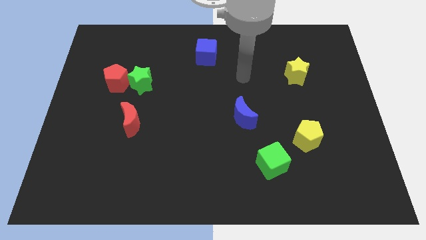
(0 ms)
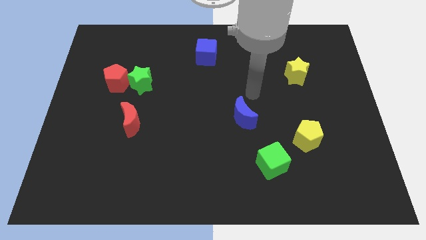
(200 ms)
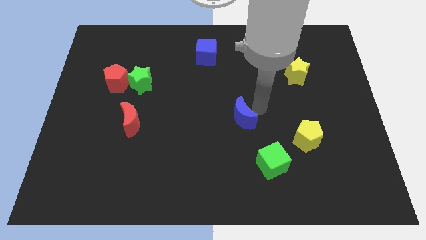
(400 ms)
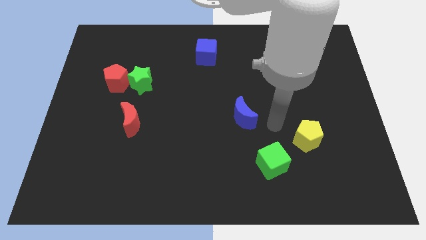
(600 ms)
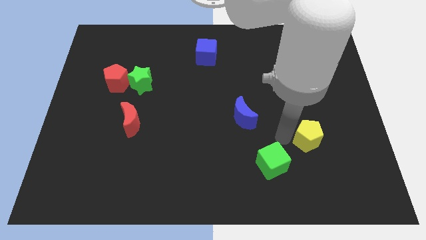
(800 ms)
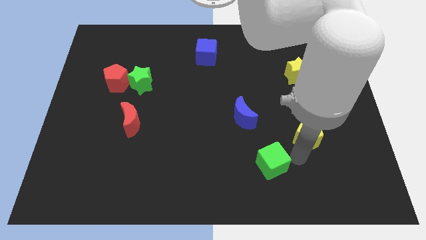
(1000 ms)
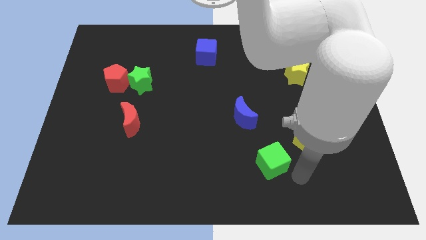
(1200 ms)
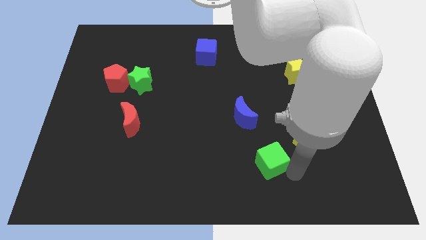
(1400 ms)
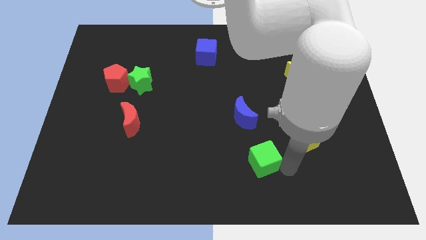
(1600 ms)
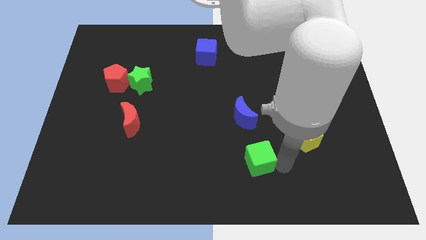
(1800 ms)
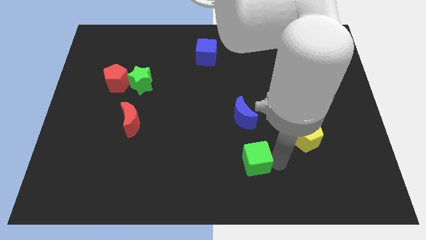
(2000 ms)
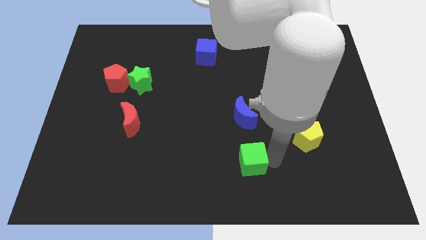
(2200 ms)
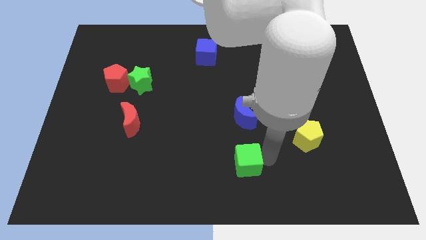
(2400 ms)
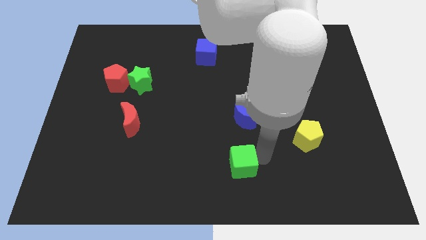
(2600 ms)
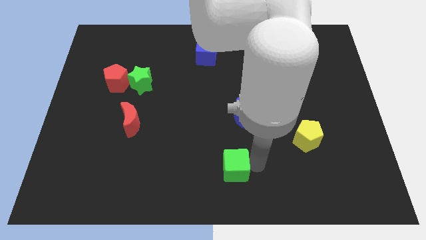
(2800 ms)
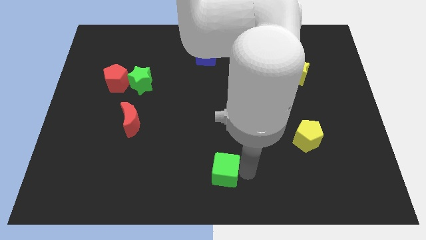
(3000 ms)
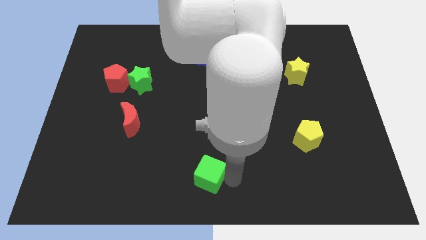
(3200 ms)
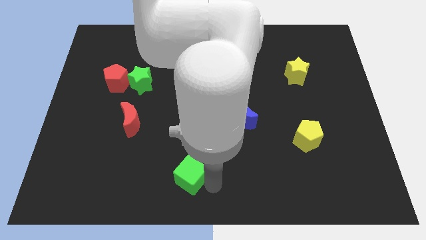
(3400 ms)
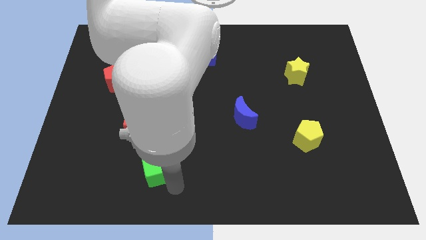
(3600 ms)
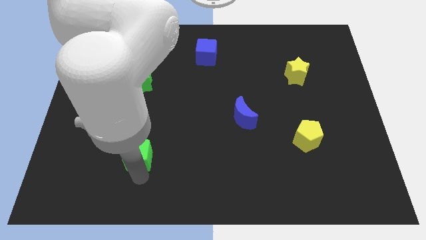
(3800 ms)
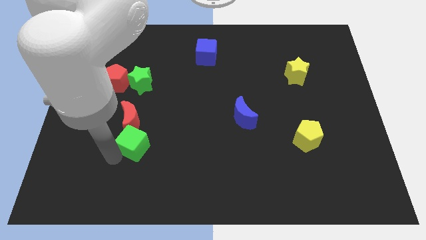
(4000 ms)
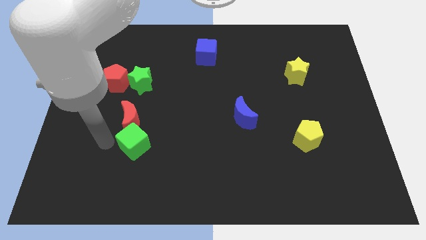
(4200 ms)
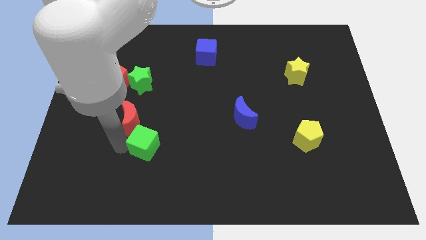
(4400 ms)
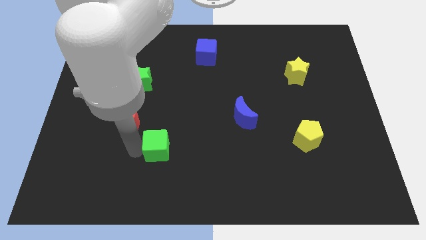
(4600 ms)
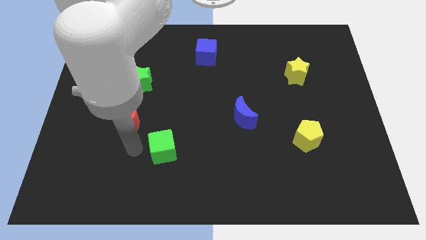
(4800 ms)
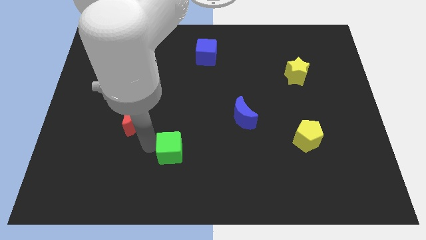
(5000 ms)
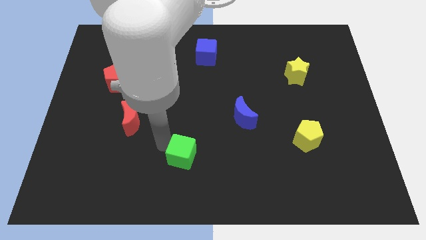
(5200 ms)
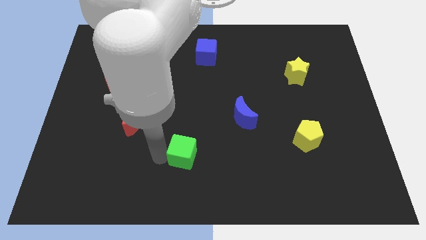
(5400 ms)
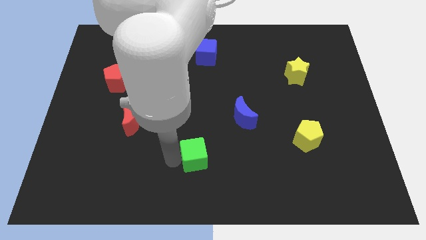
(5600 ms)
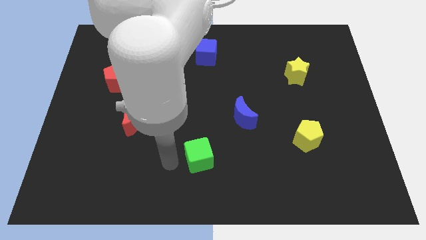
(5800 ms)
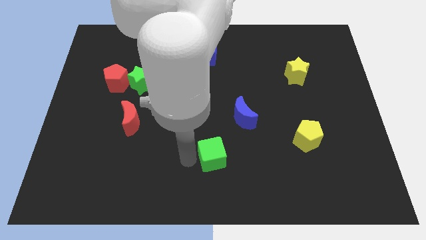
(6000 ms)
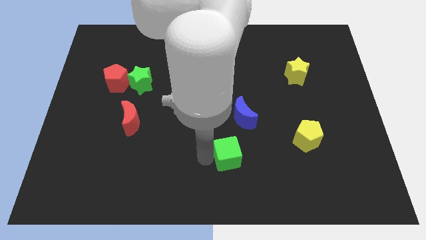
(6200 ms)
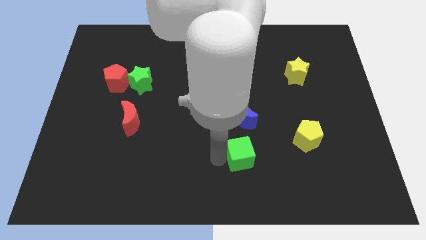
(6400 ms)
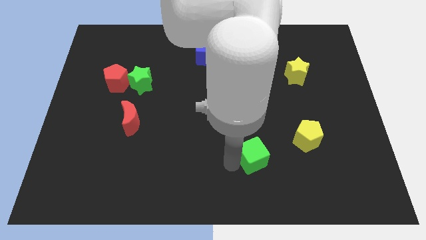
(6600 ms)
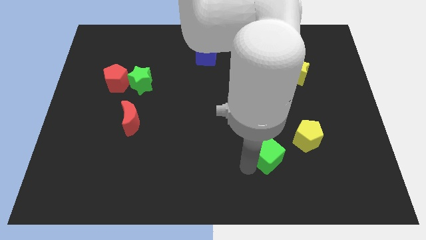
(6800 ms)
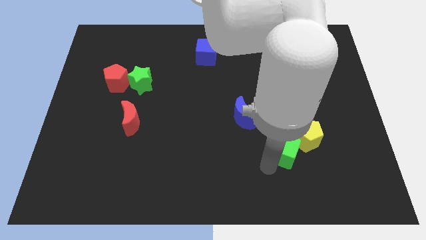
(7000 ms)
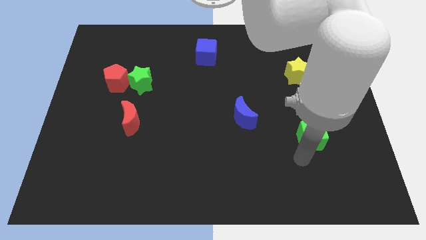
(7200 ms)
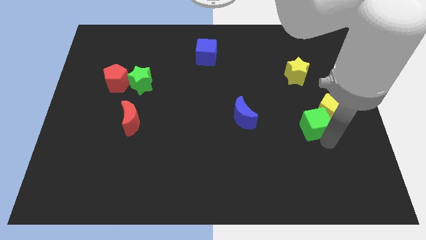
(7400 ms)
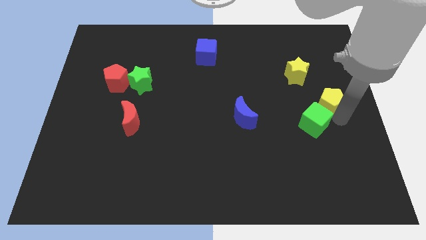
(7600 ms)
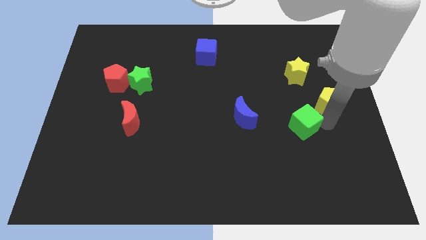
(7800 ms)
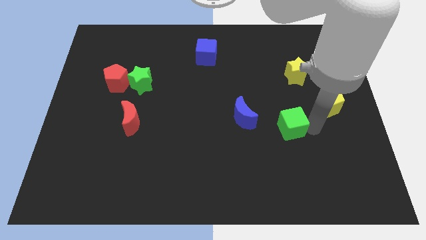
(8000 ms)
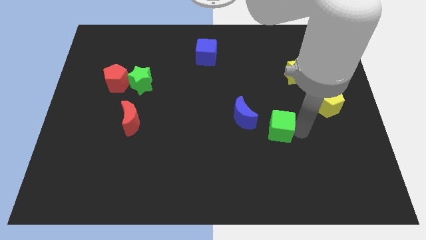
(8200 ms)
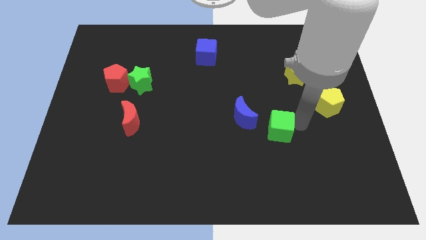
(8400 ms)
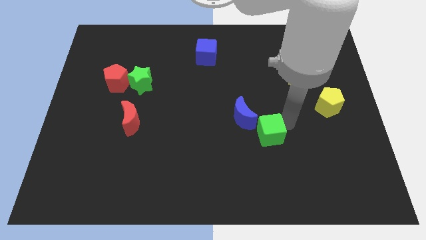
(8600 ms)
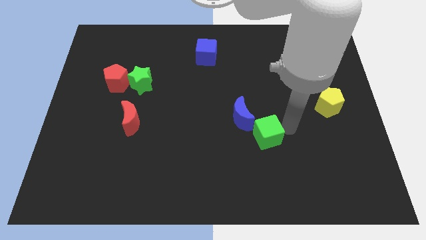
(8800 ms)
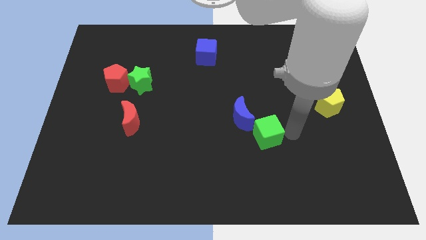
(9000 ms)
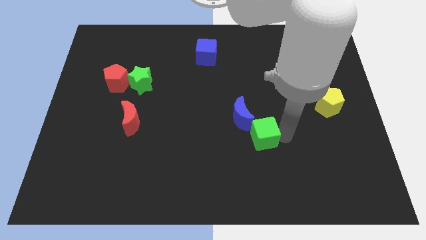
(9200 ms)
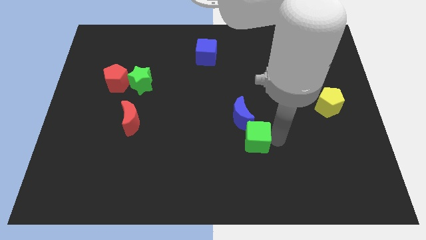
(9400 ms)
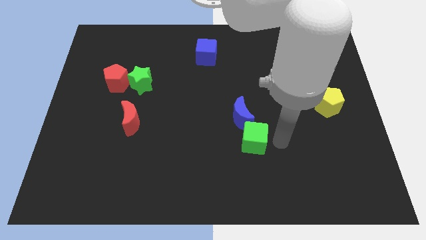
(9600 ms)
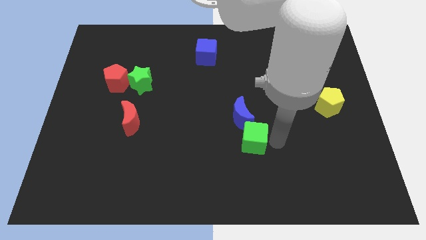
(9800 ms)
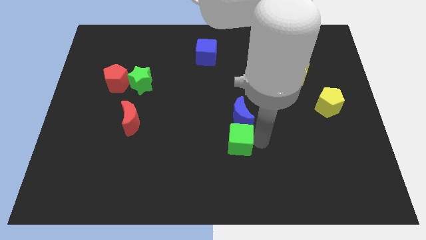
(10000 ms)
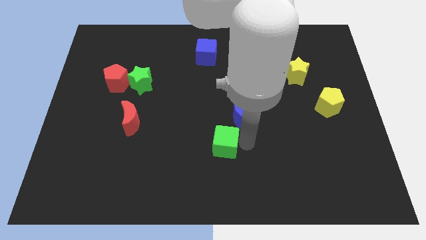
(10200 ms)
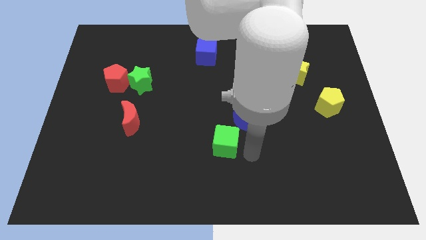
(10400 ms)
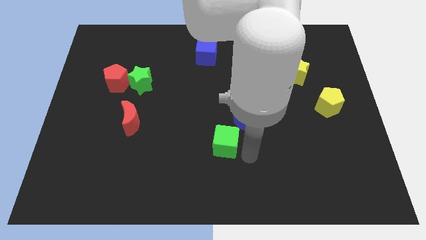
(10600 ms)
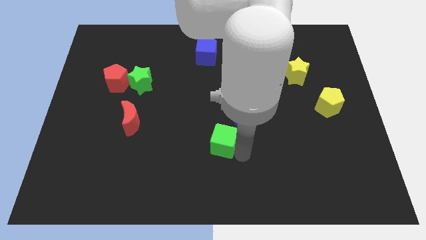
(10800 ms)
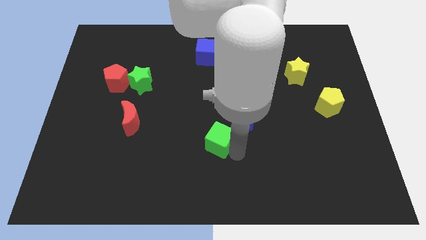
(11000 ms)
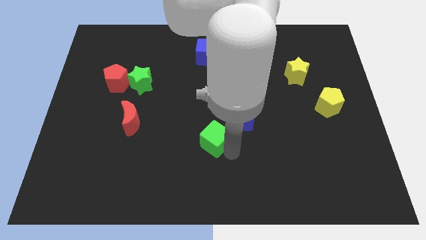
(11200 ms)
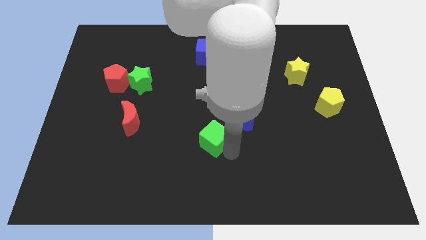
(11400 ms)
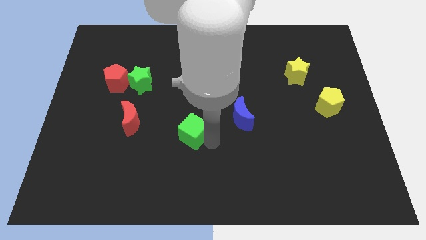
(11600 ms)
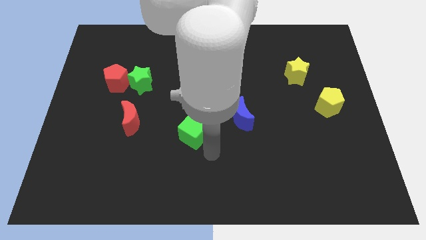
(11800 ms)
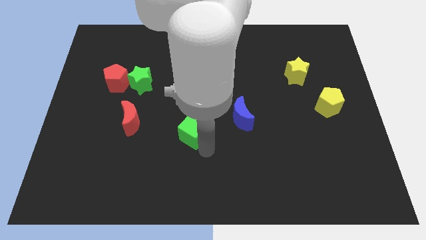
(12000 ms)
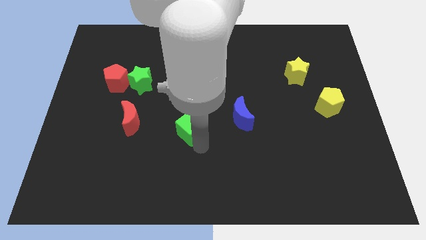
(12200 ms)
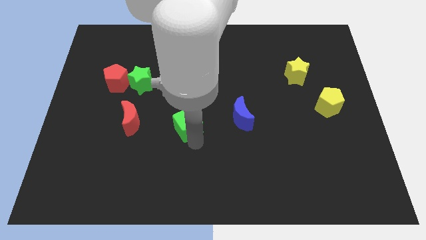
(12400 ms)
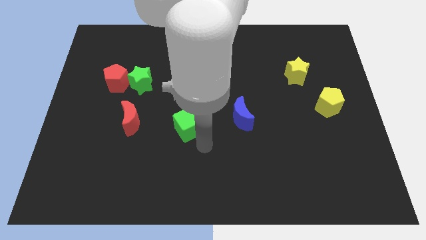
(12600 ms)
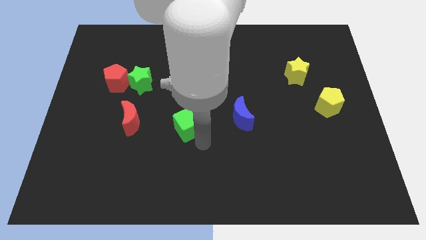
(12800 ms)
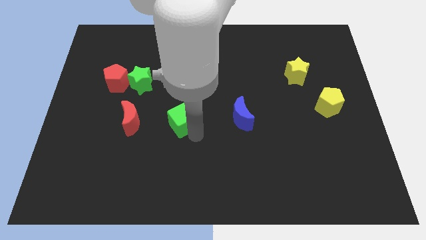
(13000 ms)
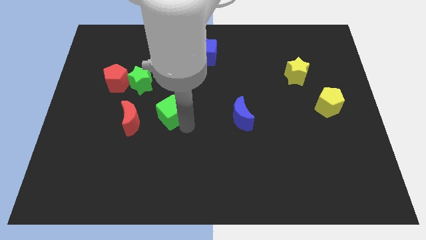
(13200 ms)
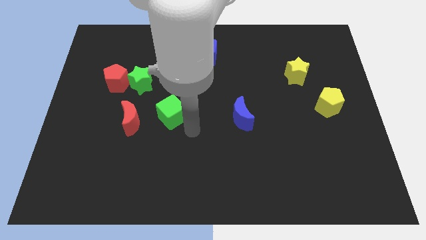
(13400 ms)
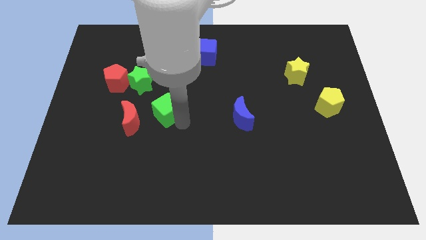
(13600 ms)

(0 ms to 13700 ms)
put the green cube to the top right side of the red moon

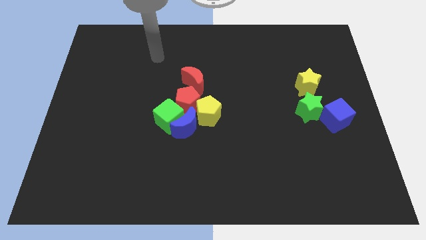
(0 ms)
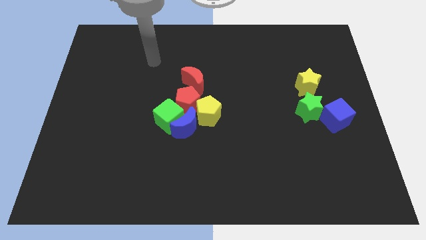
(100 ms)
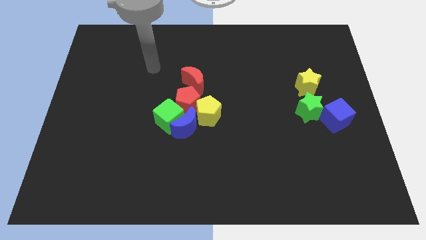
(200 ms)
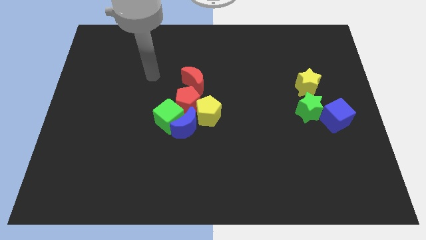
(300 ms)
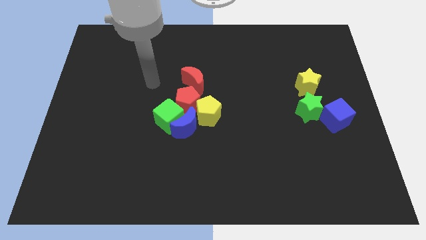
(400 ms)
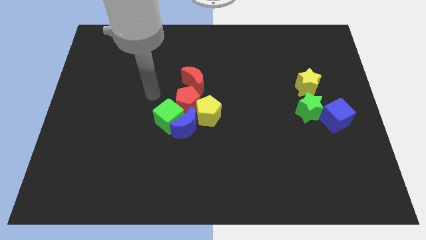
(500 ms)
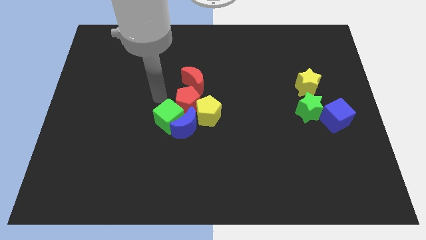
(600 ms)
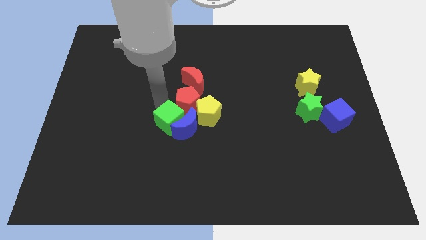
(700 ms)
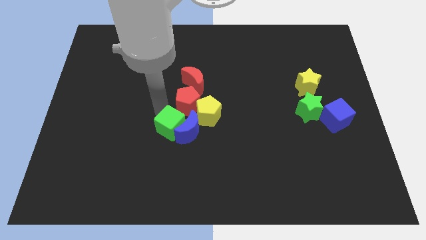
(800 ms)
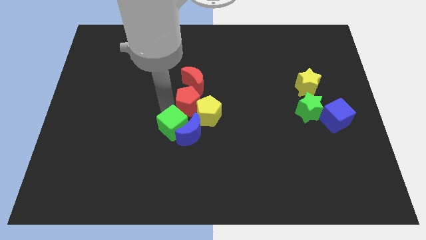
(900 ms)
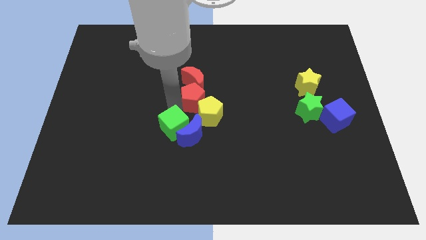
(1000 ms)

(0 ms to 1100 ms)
put the red pentagon to the top side of the yellow pentagon
